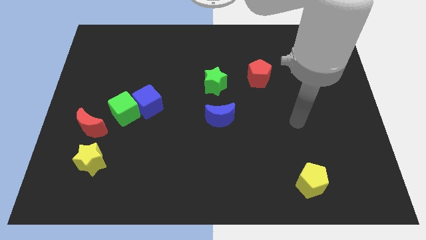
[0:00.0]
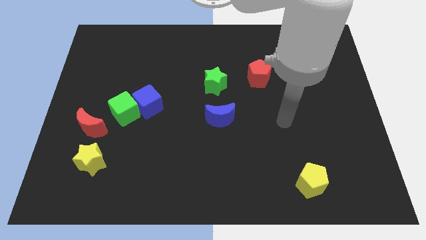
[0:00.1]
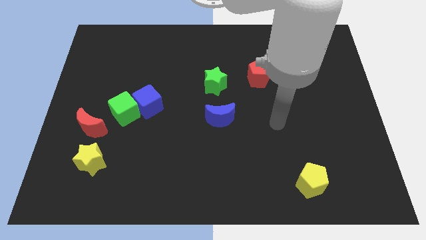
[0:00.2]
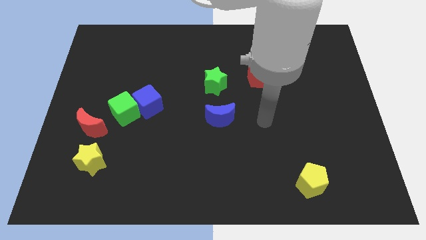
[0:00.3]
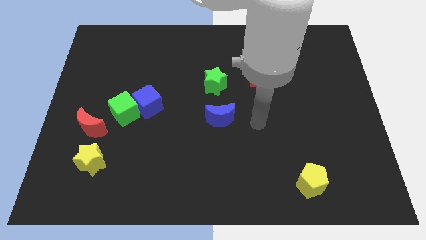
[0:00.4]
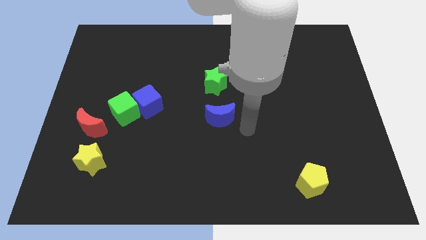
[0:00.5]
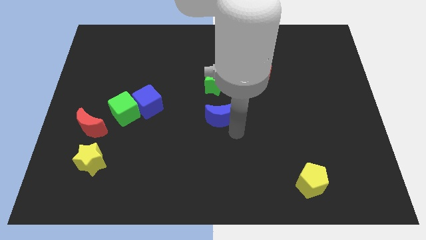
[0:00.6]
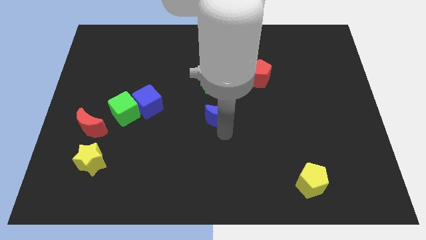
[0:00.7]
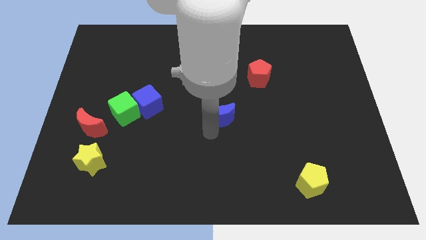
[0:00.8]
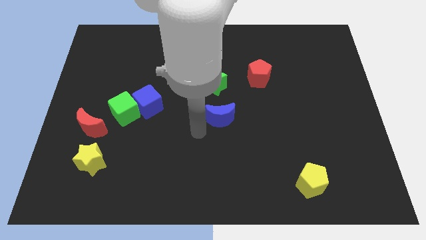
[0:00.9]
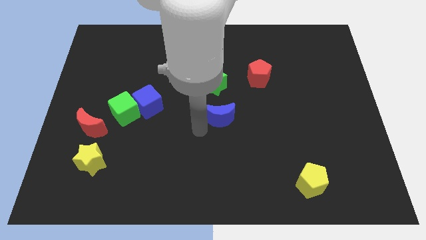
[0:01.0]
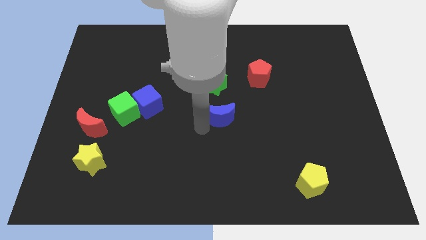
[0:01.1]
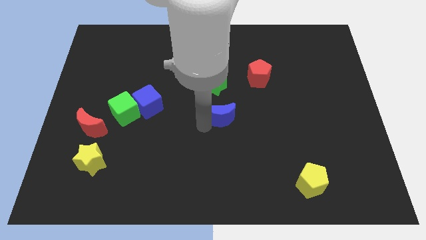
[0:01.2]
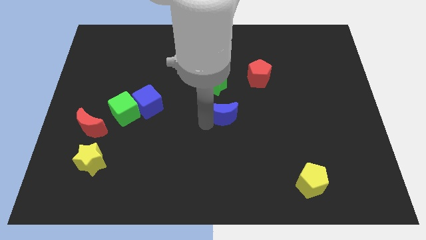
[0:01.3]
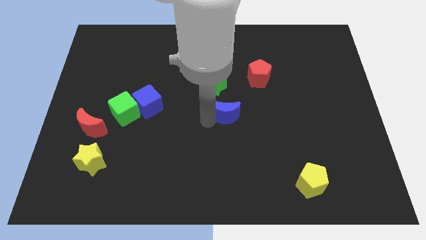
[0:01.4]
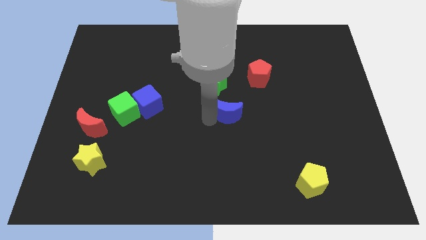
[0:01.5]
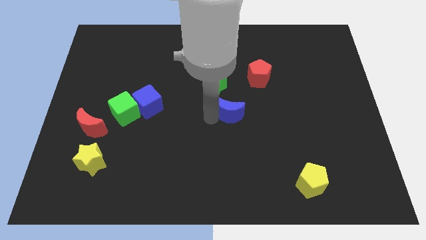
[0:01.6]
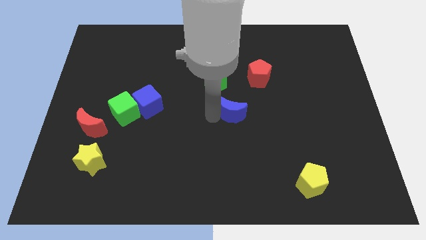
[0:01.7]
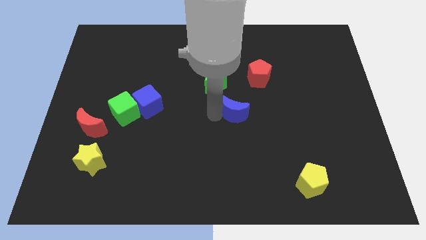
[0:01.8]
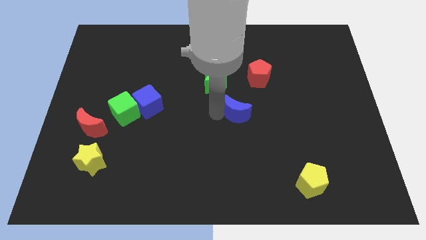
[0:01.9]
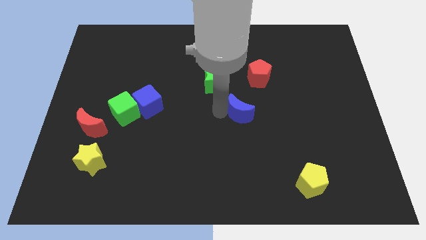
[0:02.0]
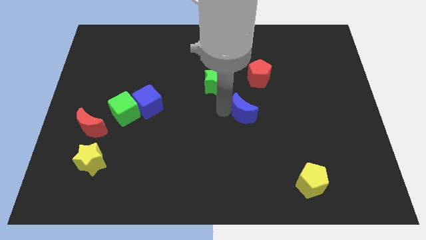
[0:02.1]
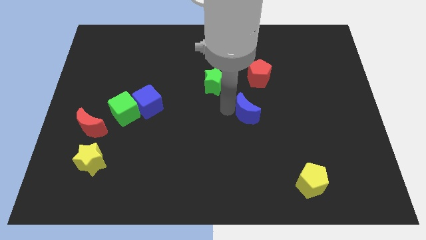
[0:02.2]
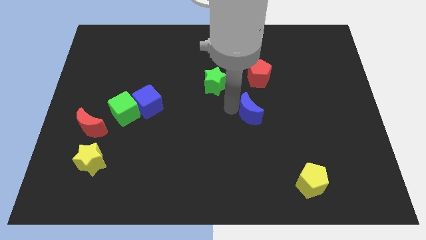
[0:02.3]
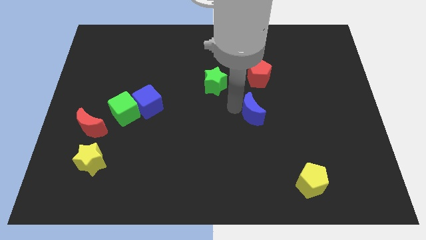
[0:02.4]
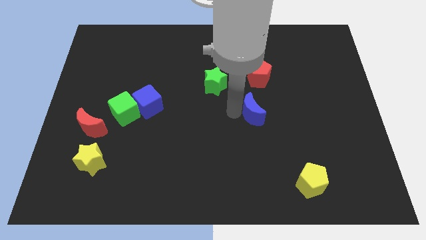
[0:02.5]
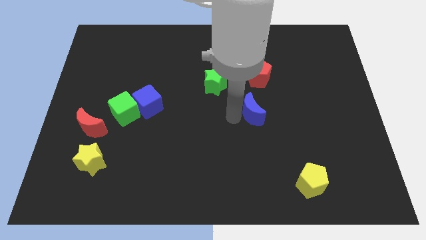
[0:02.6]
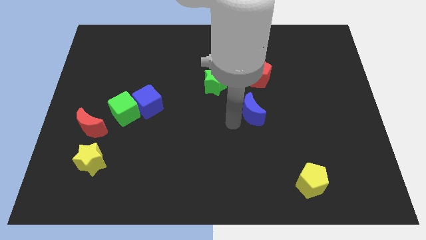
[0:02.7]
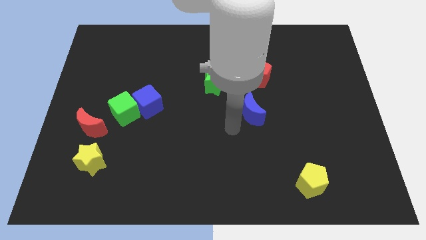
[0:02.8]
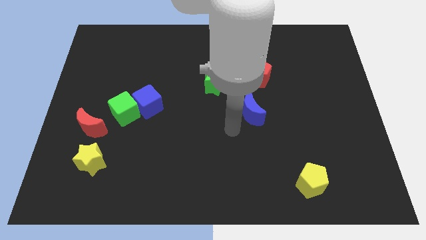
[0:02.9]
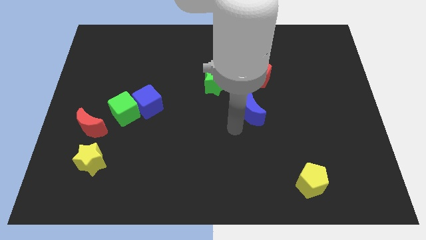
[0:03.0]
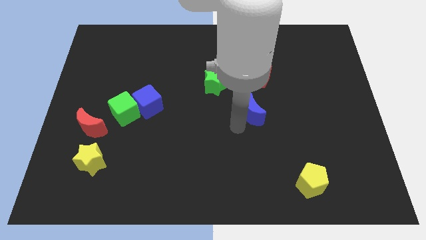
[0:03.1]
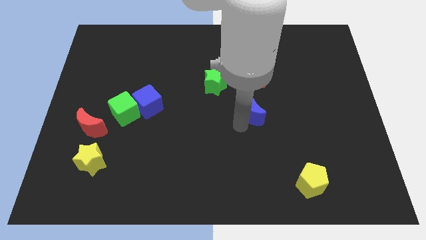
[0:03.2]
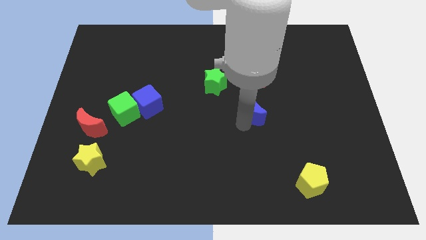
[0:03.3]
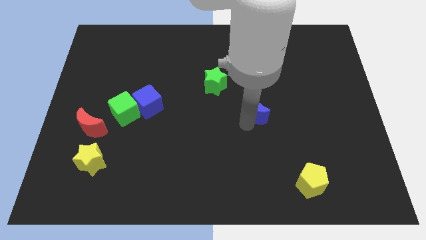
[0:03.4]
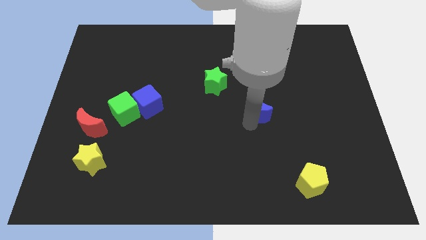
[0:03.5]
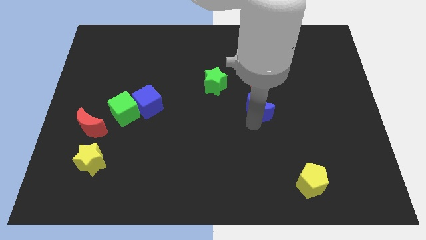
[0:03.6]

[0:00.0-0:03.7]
push the blue moon diagonally up and to the right somewhat

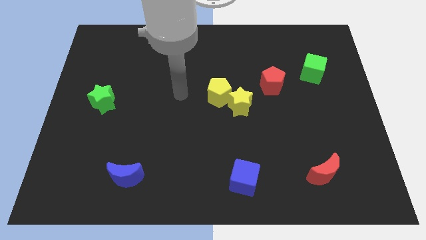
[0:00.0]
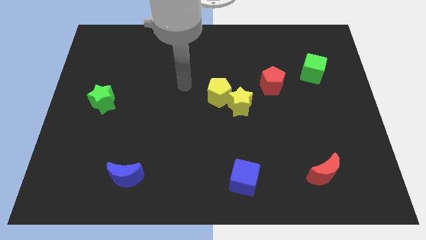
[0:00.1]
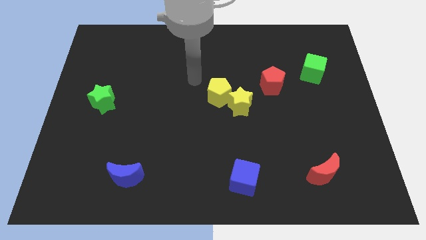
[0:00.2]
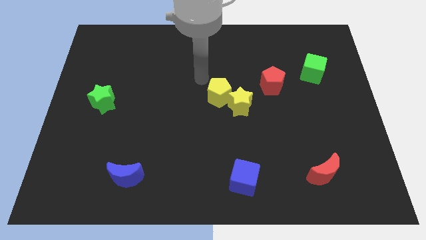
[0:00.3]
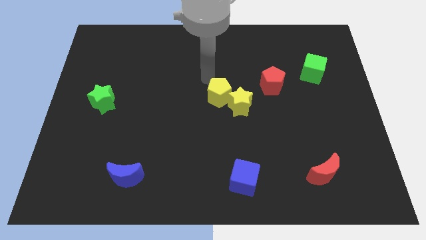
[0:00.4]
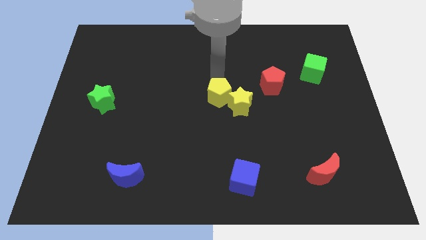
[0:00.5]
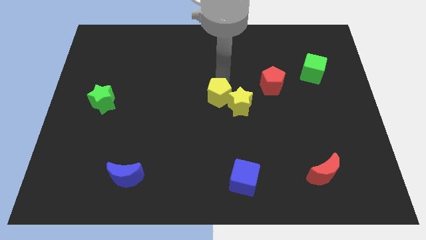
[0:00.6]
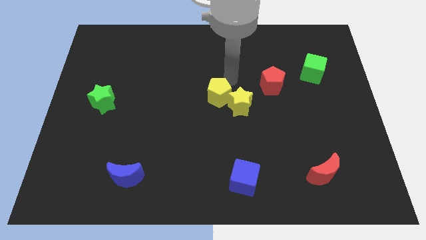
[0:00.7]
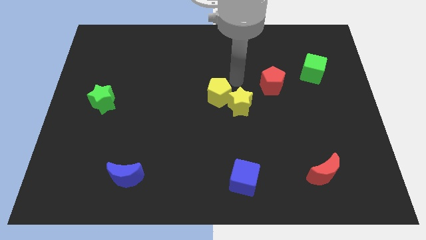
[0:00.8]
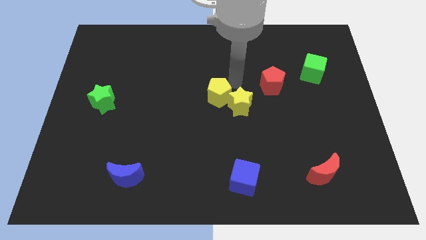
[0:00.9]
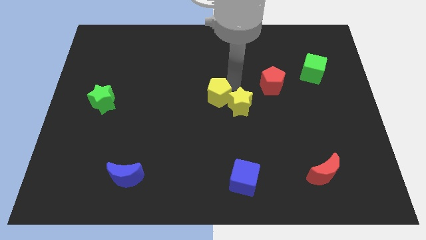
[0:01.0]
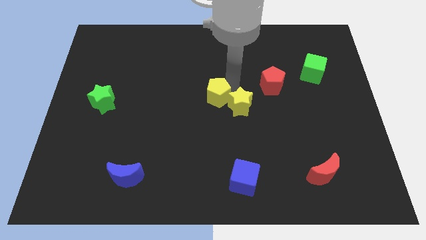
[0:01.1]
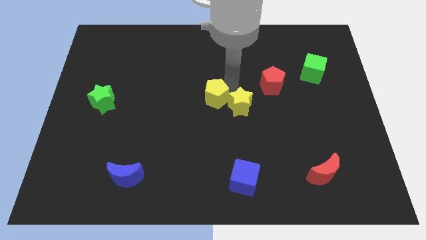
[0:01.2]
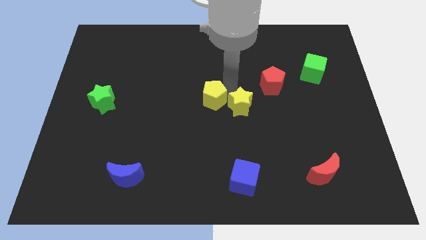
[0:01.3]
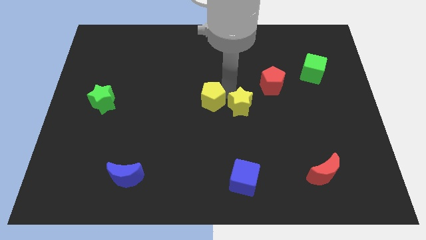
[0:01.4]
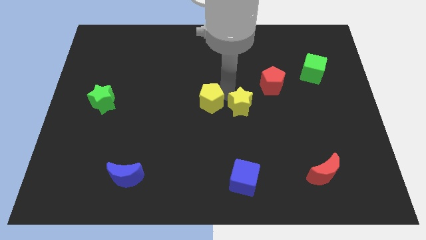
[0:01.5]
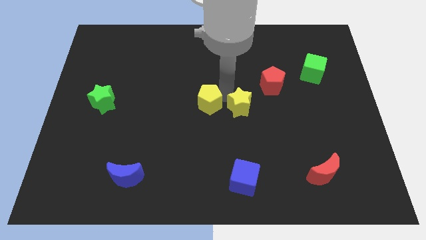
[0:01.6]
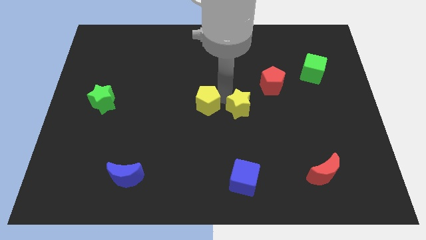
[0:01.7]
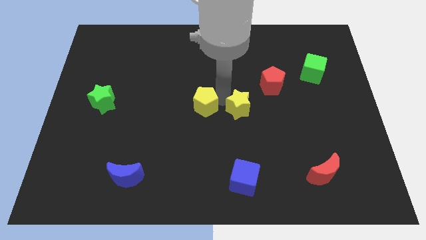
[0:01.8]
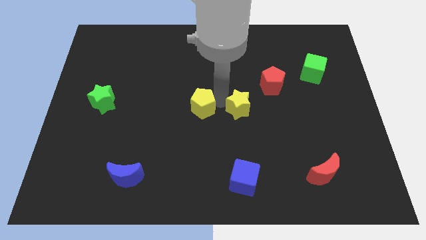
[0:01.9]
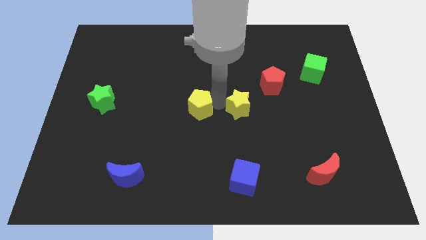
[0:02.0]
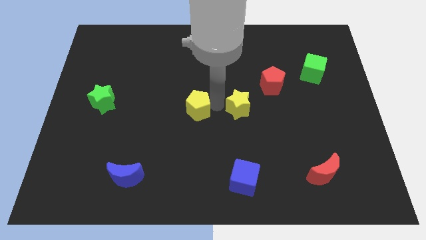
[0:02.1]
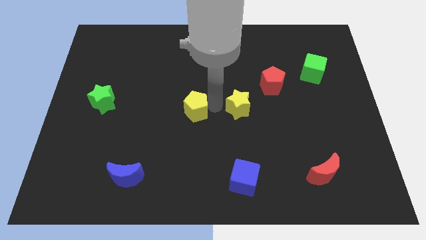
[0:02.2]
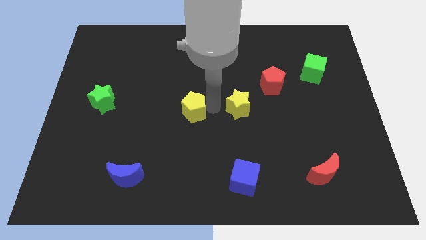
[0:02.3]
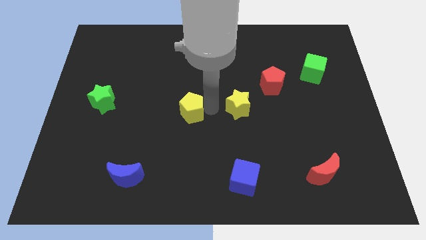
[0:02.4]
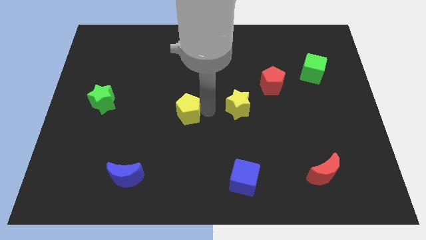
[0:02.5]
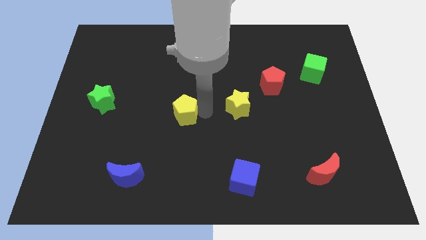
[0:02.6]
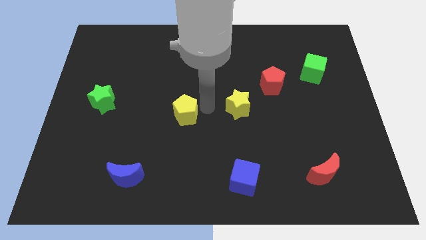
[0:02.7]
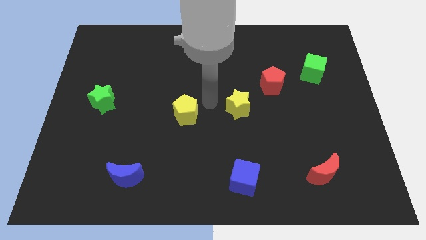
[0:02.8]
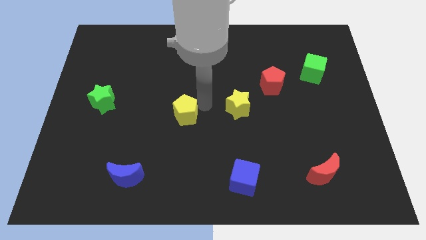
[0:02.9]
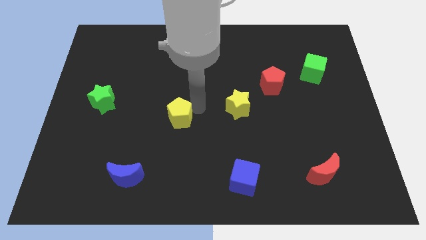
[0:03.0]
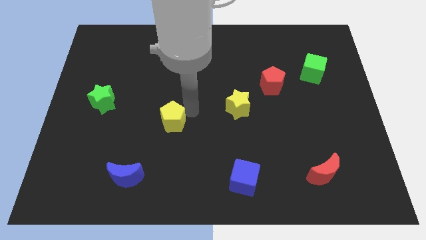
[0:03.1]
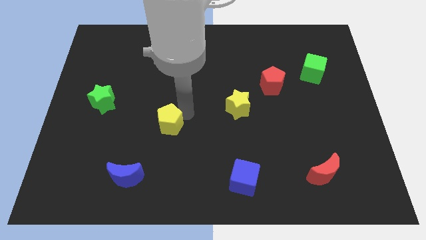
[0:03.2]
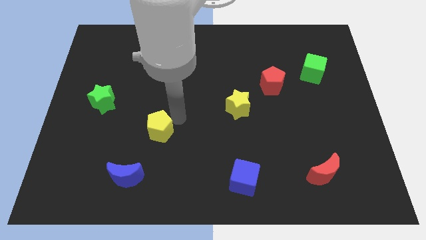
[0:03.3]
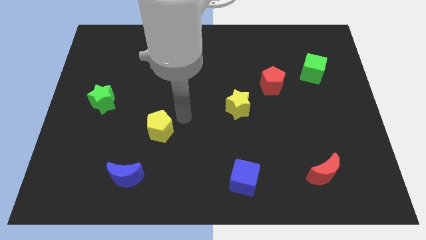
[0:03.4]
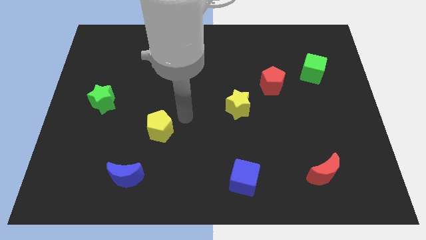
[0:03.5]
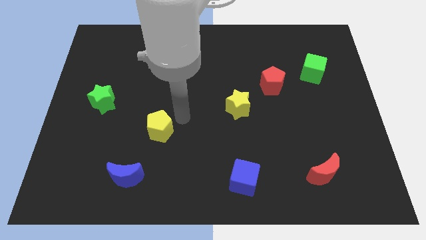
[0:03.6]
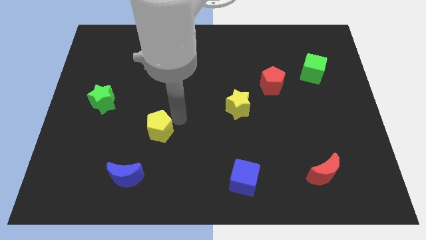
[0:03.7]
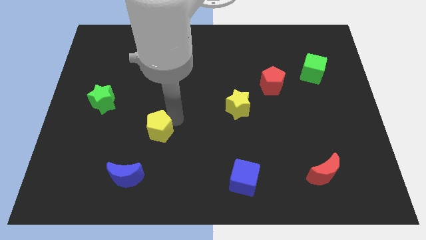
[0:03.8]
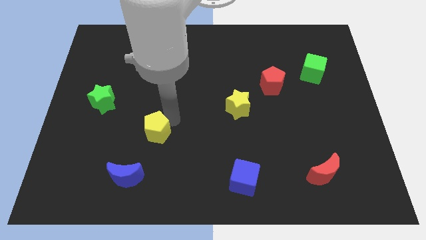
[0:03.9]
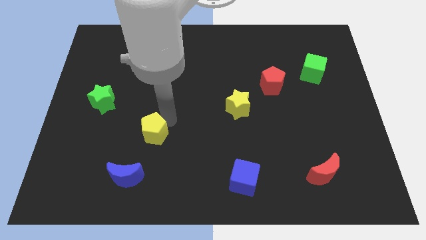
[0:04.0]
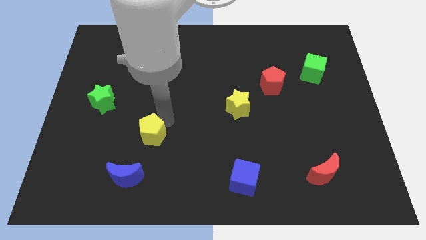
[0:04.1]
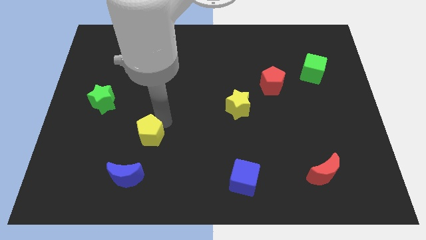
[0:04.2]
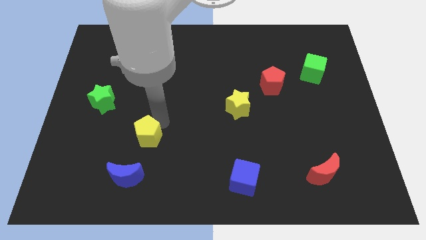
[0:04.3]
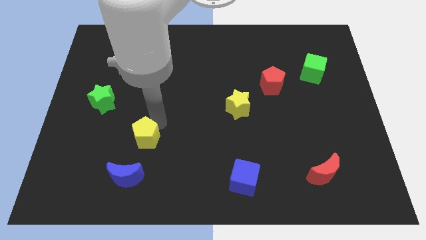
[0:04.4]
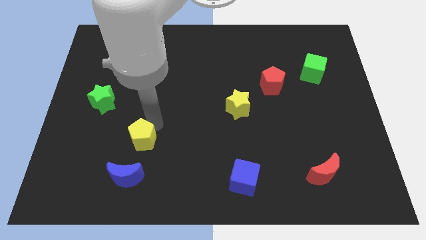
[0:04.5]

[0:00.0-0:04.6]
push the yellow pentagon downwards and then left
